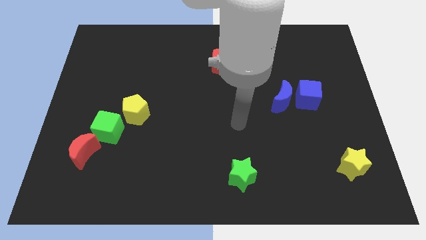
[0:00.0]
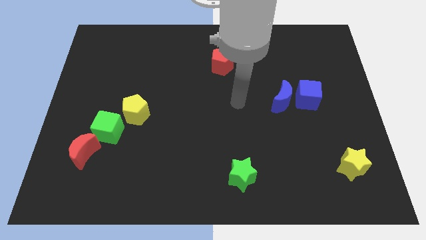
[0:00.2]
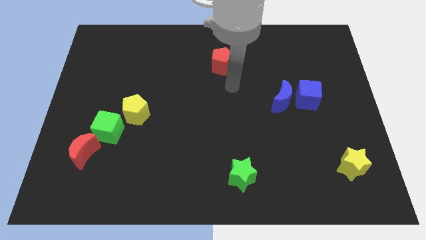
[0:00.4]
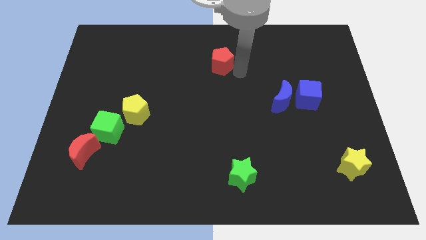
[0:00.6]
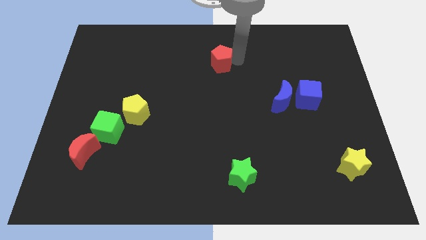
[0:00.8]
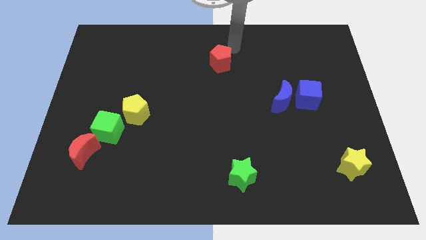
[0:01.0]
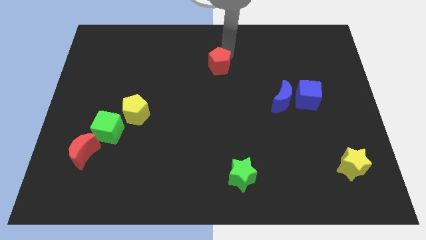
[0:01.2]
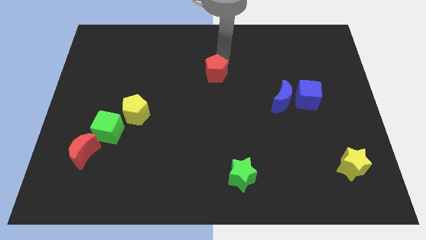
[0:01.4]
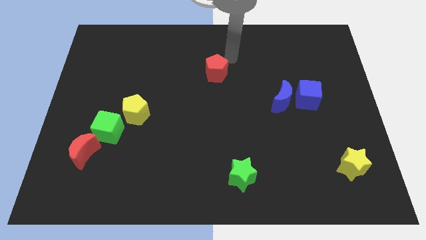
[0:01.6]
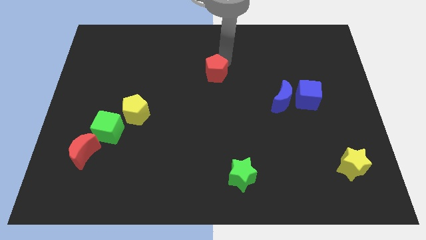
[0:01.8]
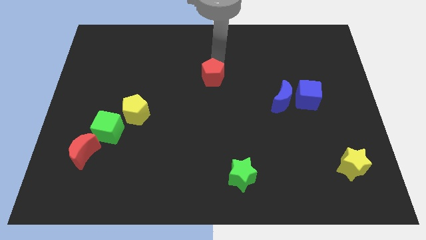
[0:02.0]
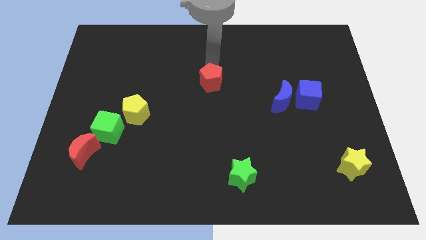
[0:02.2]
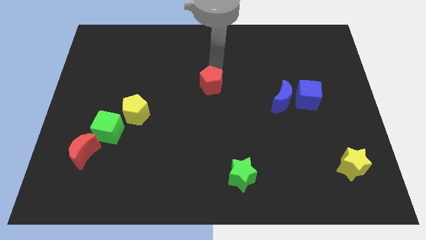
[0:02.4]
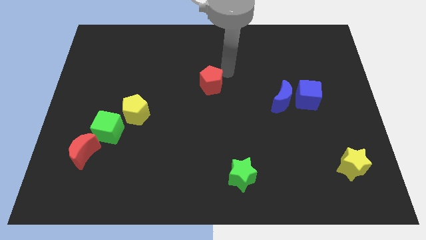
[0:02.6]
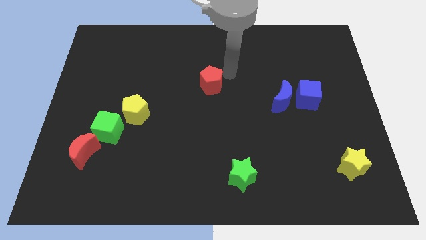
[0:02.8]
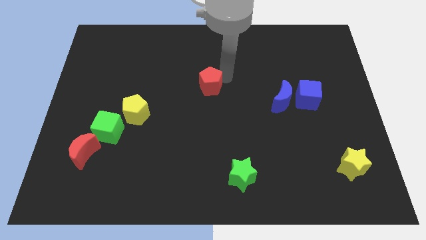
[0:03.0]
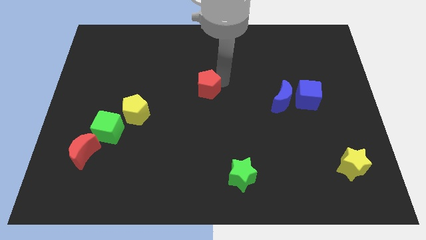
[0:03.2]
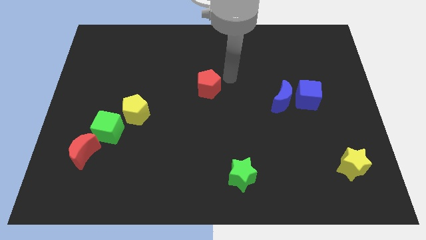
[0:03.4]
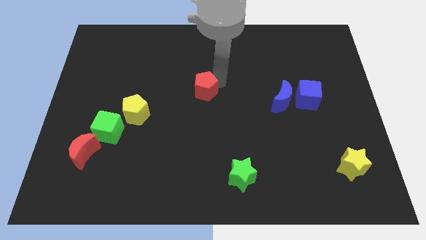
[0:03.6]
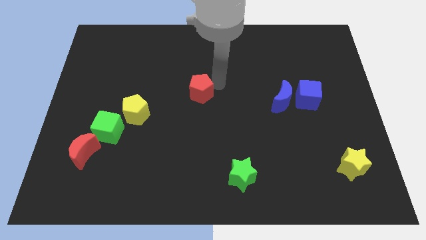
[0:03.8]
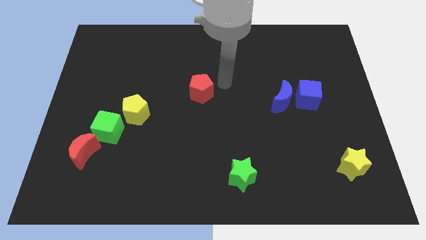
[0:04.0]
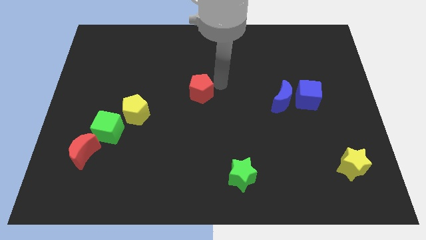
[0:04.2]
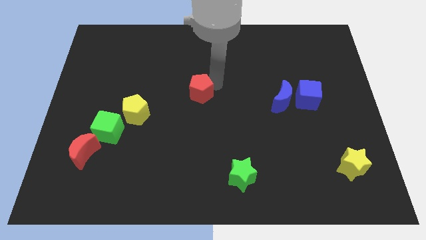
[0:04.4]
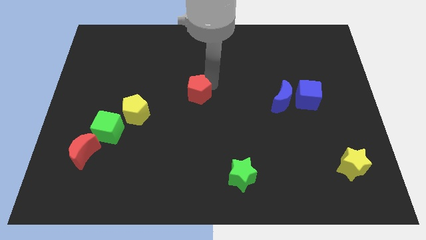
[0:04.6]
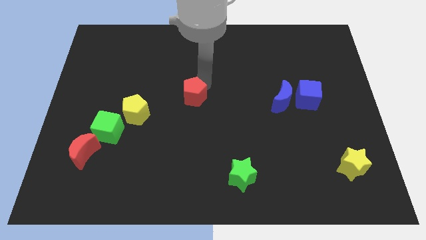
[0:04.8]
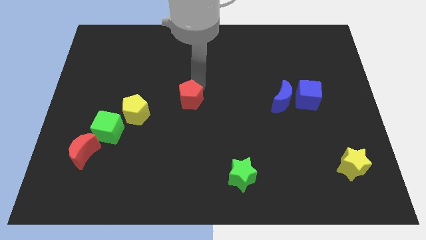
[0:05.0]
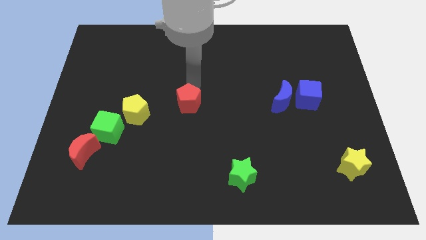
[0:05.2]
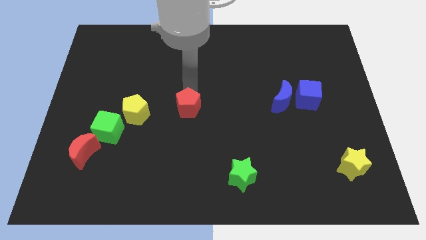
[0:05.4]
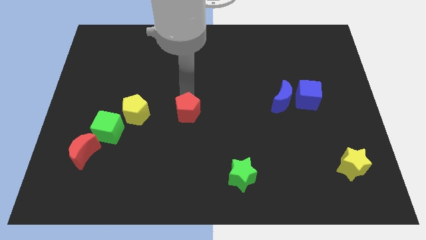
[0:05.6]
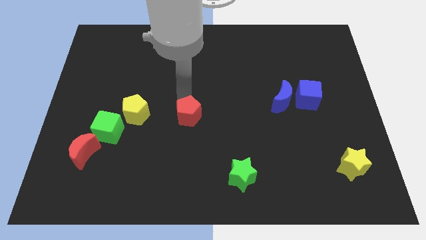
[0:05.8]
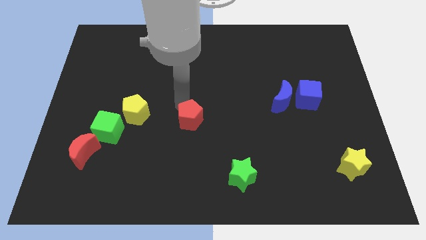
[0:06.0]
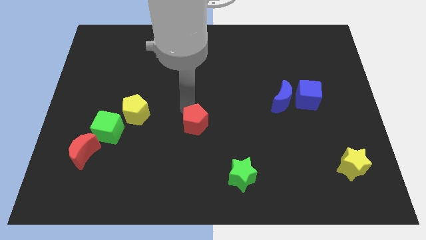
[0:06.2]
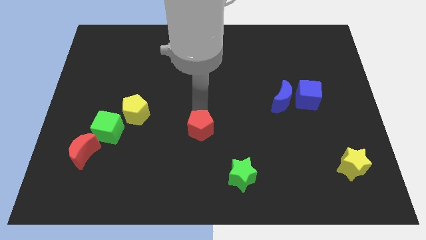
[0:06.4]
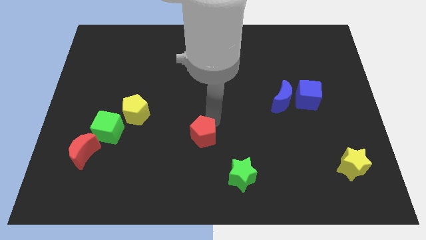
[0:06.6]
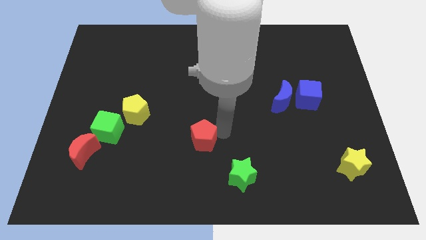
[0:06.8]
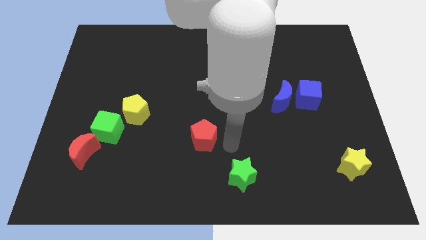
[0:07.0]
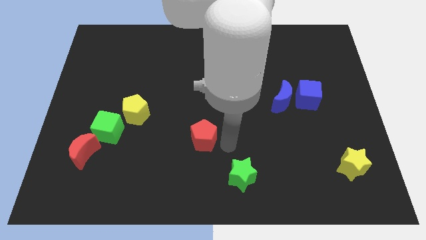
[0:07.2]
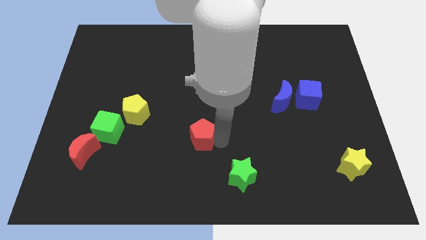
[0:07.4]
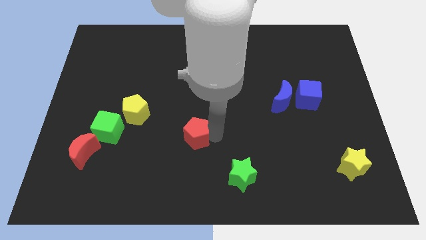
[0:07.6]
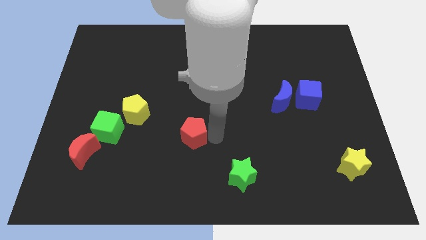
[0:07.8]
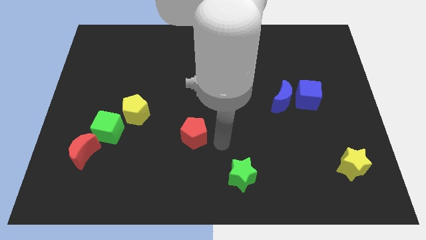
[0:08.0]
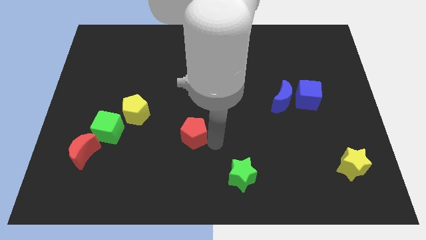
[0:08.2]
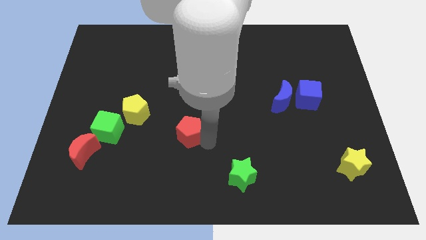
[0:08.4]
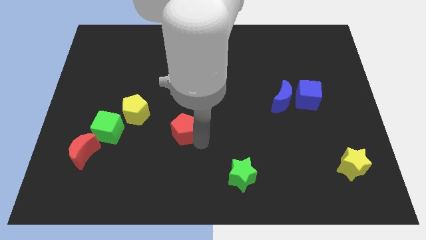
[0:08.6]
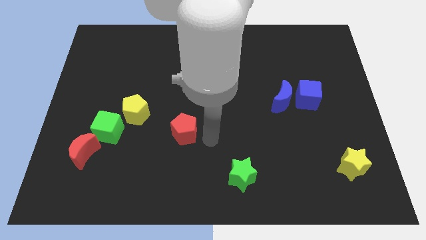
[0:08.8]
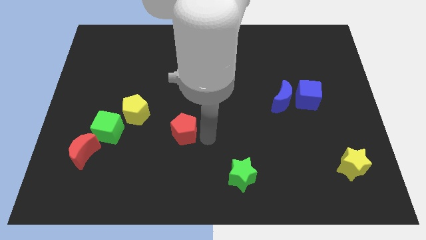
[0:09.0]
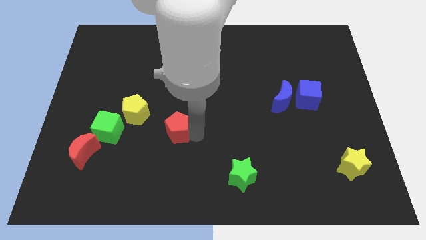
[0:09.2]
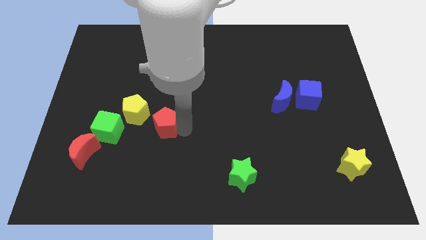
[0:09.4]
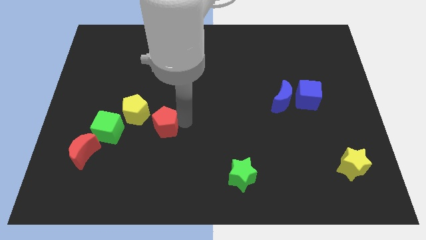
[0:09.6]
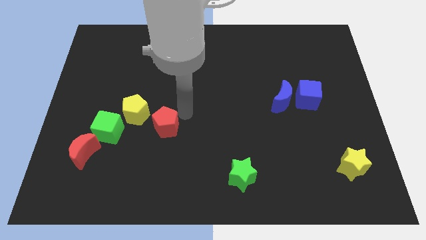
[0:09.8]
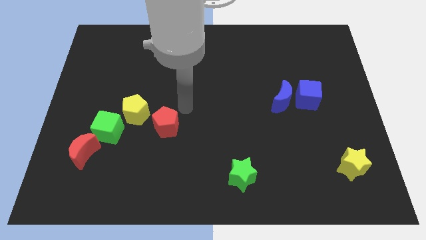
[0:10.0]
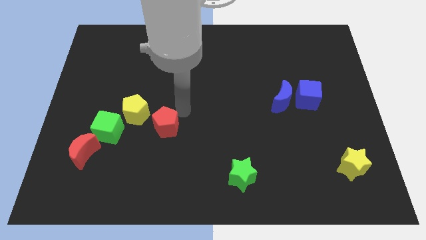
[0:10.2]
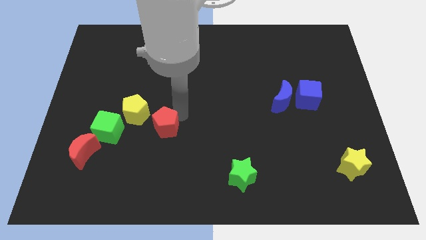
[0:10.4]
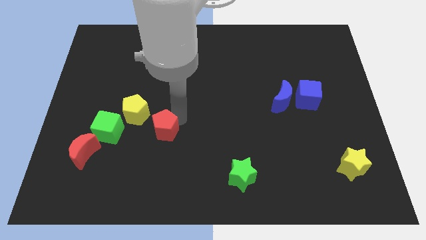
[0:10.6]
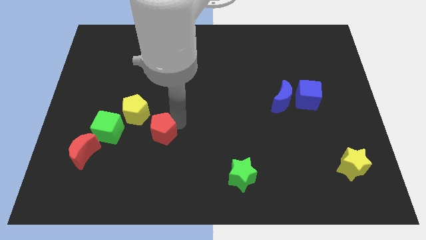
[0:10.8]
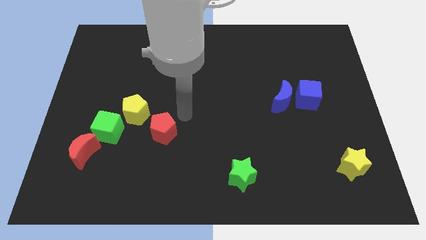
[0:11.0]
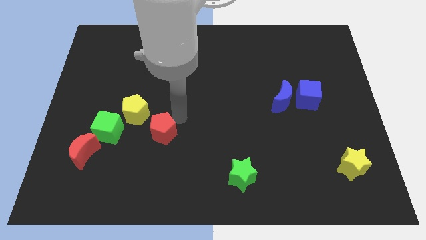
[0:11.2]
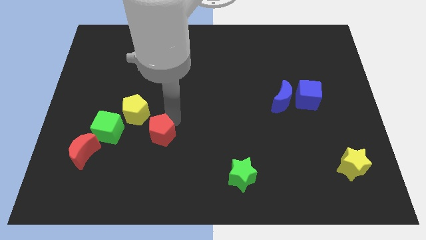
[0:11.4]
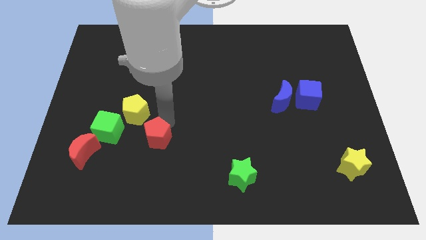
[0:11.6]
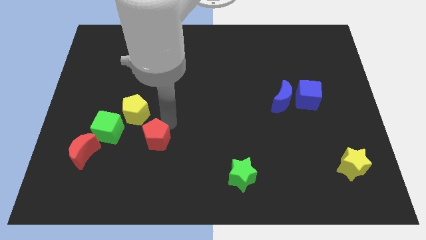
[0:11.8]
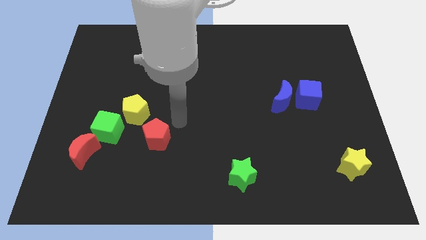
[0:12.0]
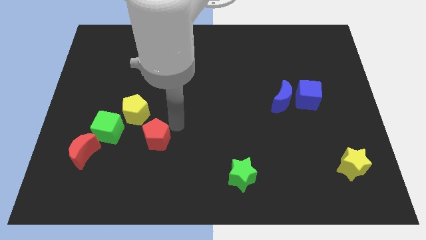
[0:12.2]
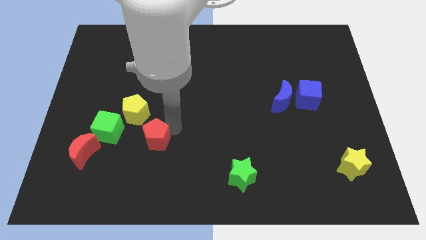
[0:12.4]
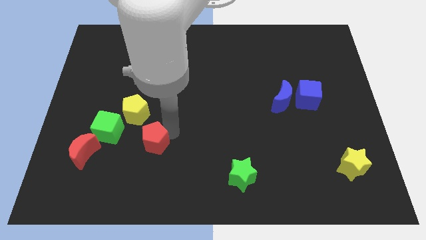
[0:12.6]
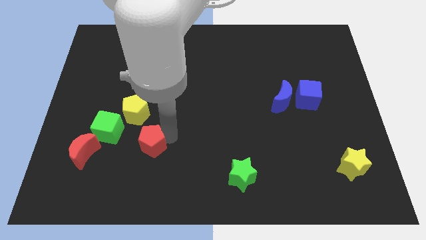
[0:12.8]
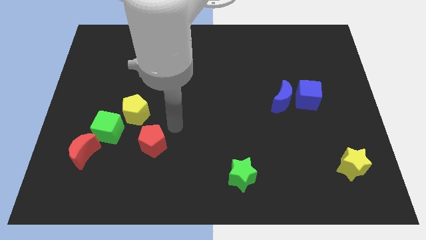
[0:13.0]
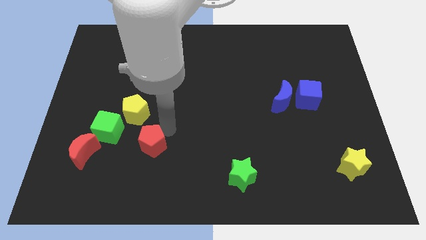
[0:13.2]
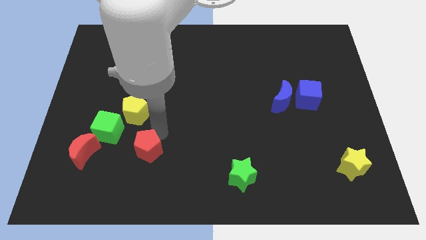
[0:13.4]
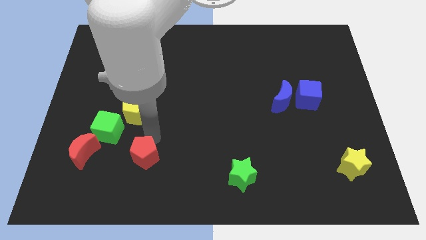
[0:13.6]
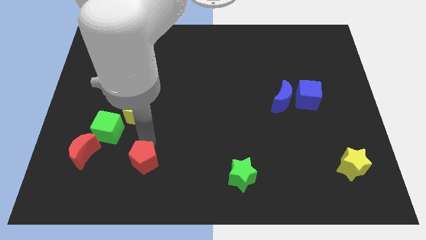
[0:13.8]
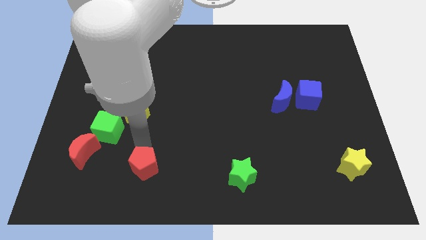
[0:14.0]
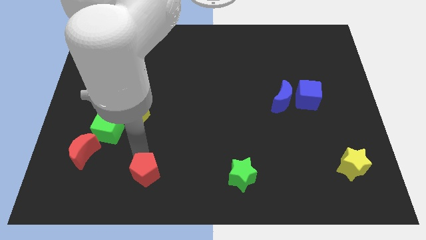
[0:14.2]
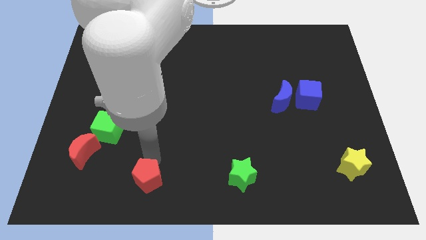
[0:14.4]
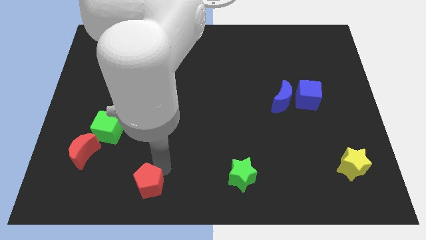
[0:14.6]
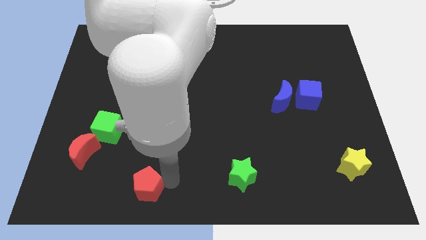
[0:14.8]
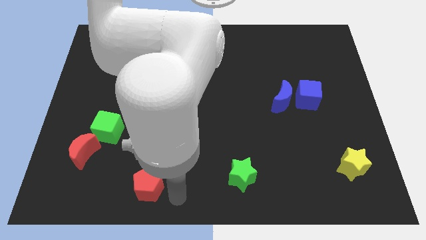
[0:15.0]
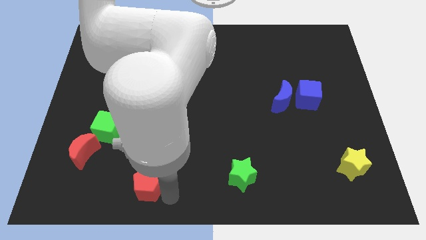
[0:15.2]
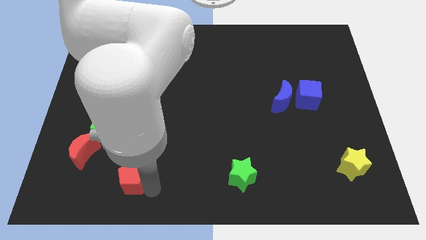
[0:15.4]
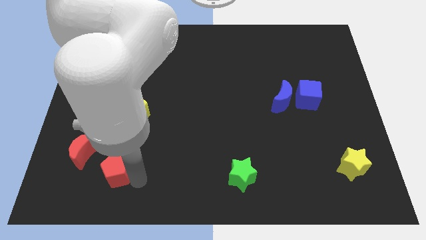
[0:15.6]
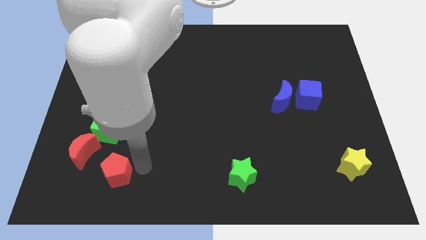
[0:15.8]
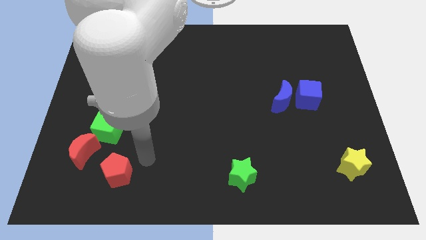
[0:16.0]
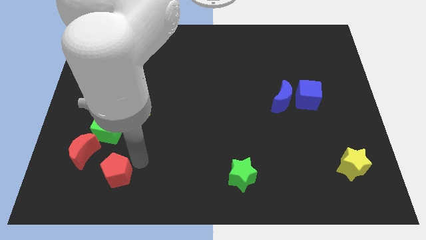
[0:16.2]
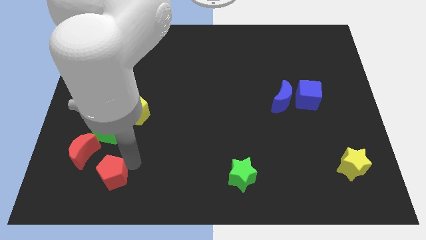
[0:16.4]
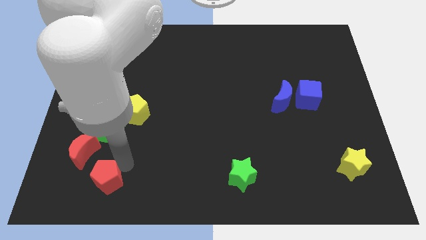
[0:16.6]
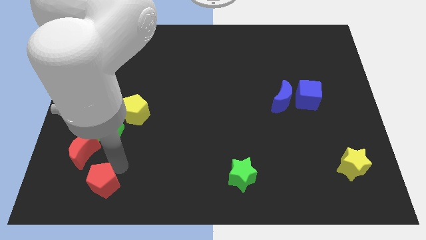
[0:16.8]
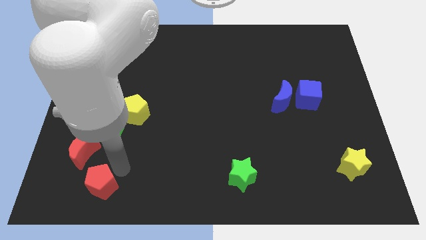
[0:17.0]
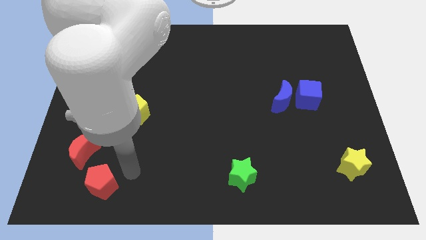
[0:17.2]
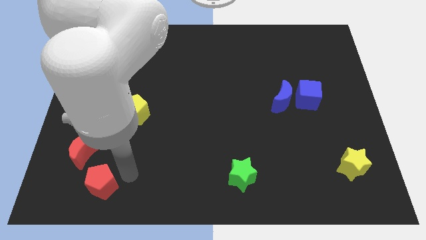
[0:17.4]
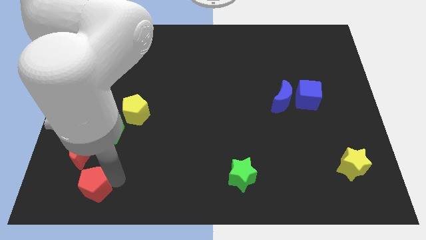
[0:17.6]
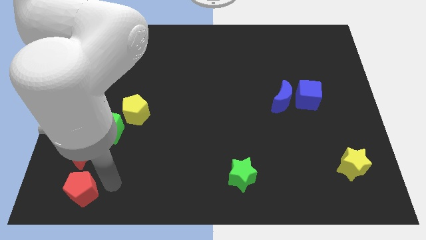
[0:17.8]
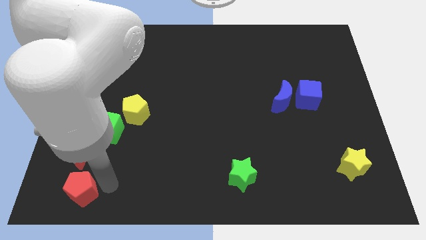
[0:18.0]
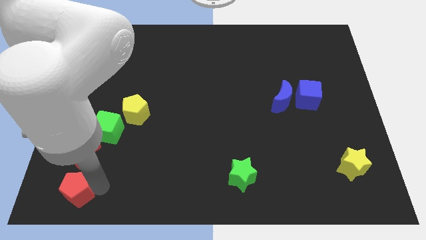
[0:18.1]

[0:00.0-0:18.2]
move the red pentagon to the lower left corner
